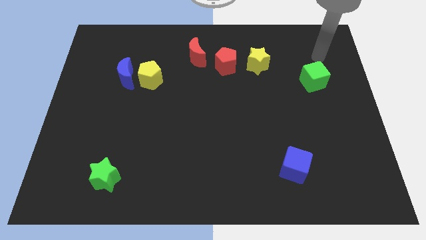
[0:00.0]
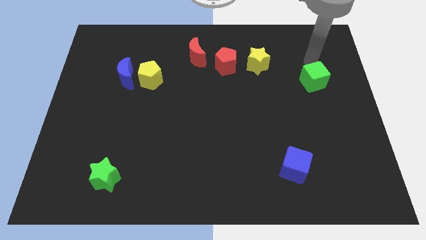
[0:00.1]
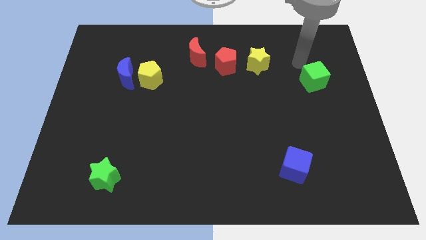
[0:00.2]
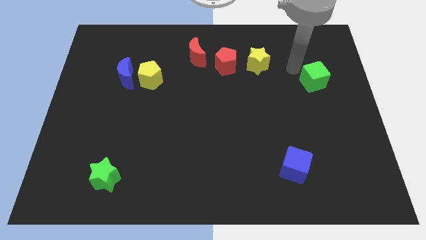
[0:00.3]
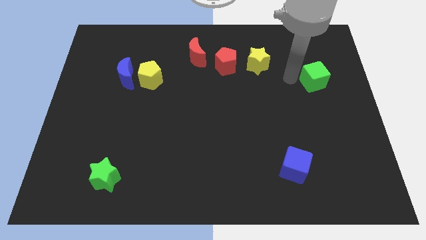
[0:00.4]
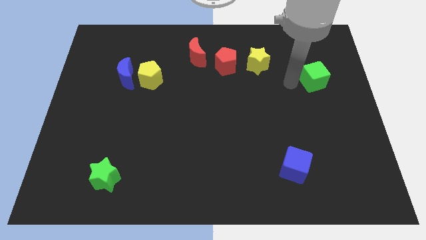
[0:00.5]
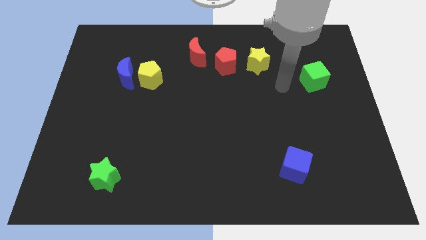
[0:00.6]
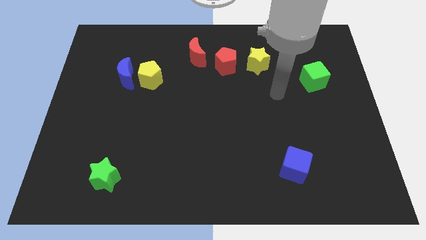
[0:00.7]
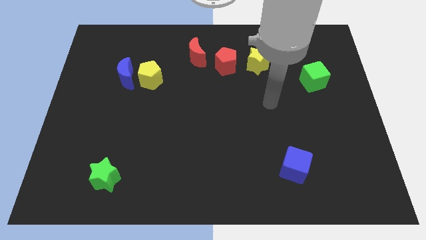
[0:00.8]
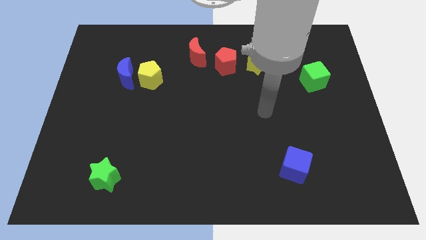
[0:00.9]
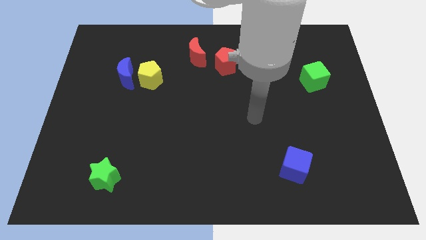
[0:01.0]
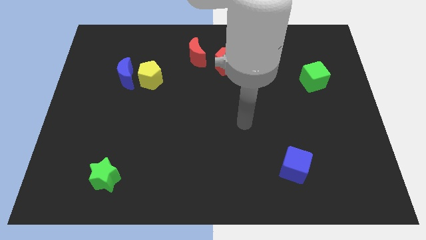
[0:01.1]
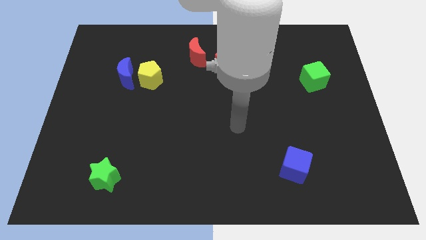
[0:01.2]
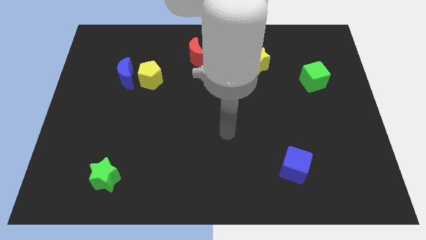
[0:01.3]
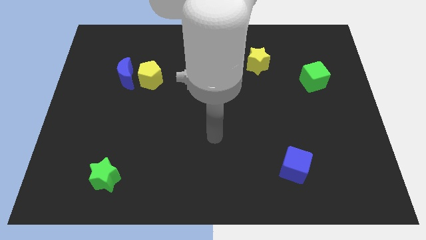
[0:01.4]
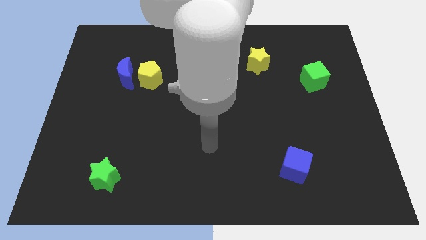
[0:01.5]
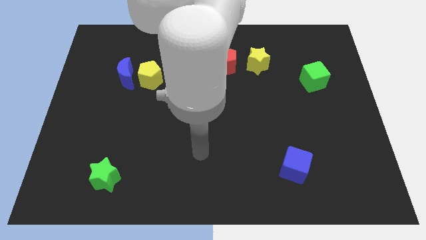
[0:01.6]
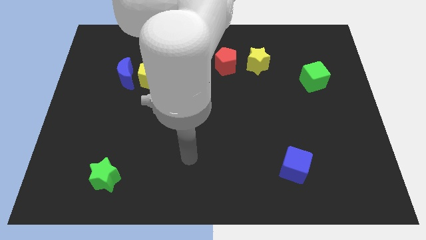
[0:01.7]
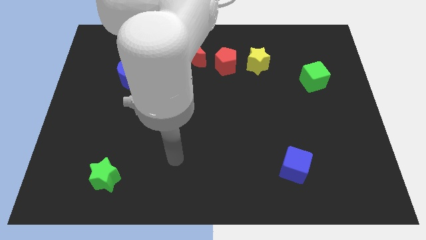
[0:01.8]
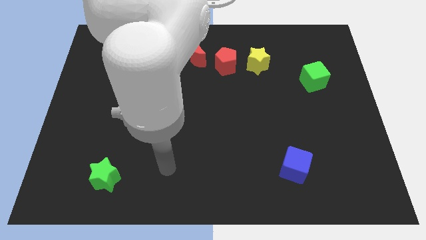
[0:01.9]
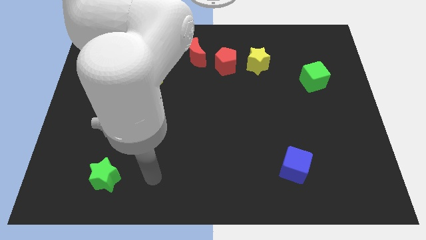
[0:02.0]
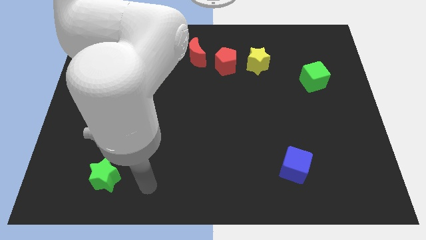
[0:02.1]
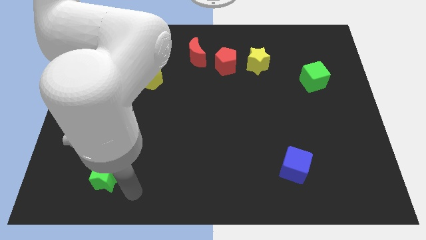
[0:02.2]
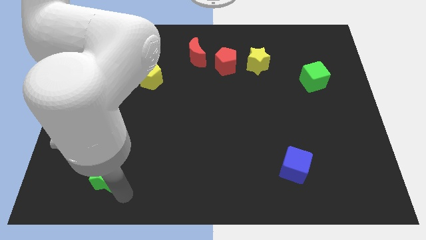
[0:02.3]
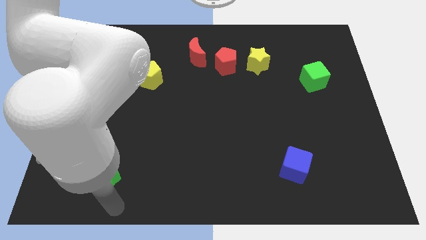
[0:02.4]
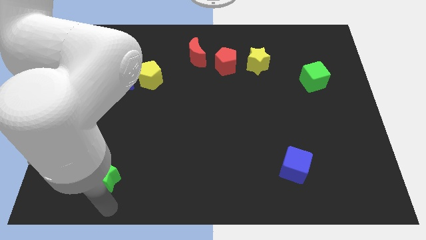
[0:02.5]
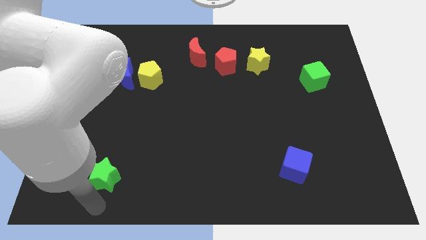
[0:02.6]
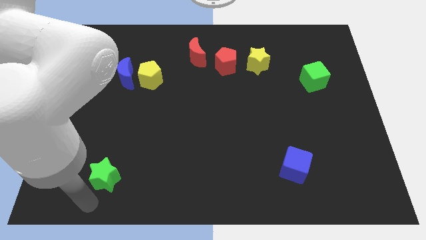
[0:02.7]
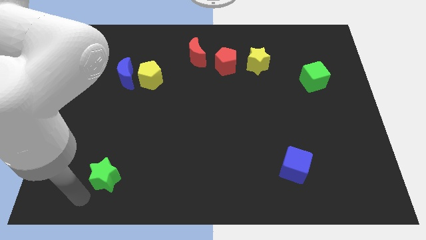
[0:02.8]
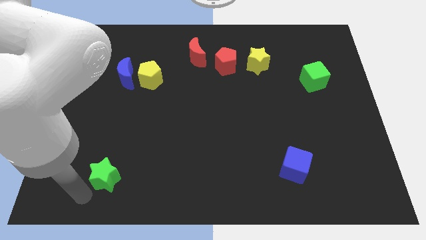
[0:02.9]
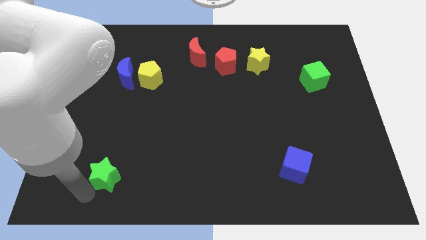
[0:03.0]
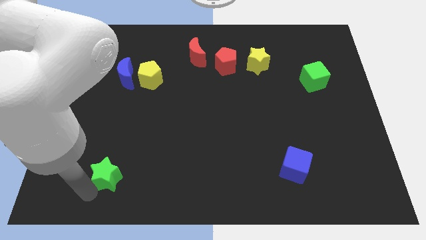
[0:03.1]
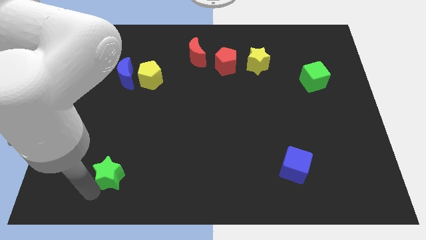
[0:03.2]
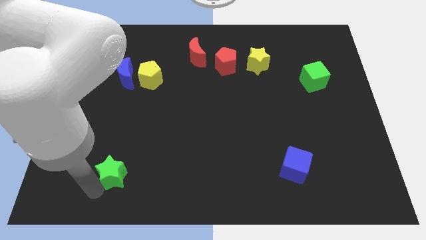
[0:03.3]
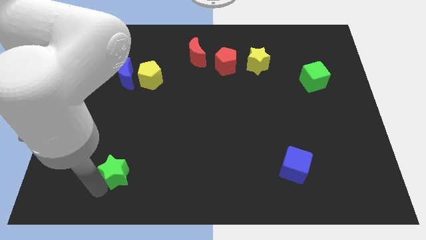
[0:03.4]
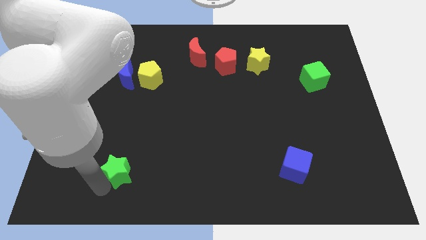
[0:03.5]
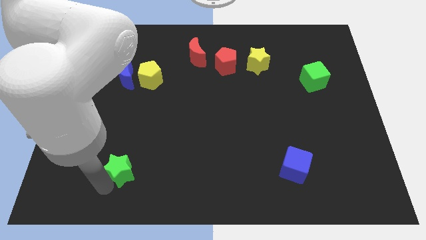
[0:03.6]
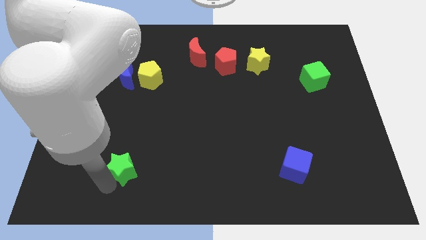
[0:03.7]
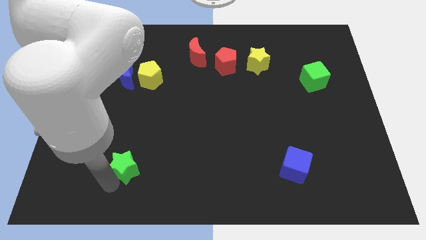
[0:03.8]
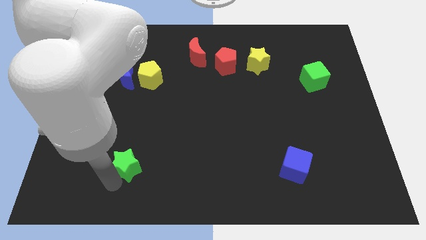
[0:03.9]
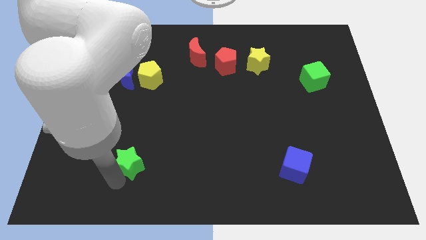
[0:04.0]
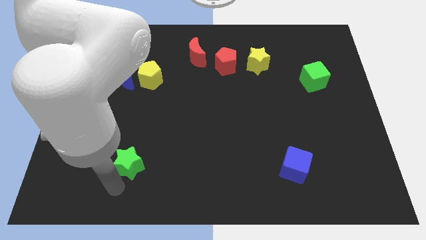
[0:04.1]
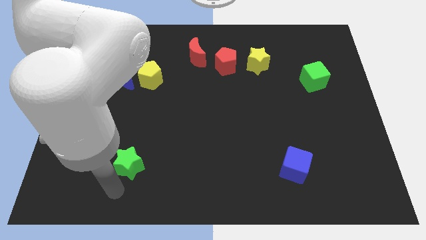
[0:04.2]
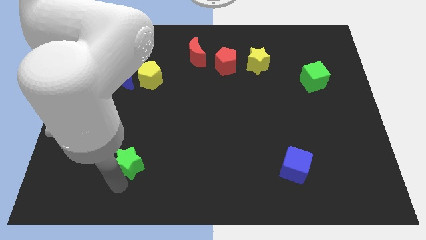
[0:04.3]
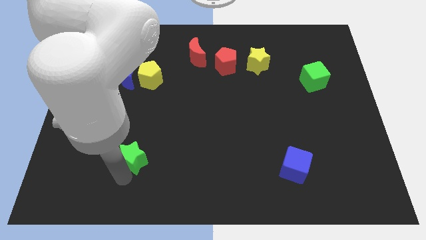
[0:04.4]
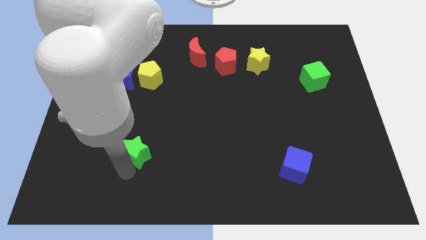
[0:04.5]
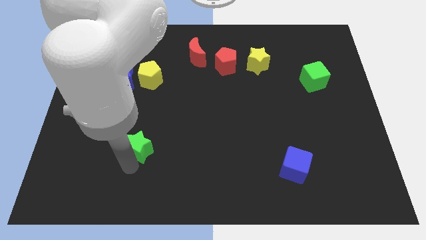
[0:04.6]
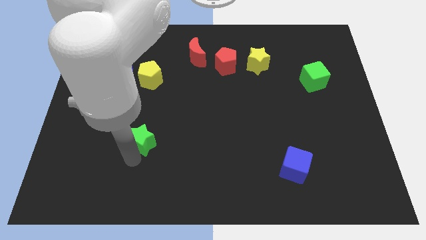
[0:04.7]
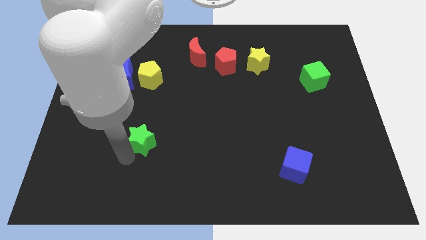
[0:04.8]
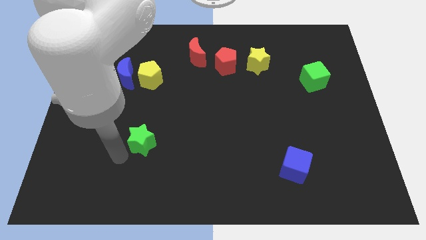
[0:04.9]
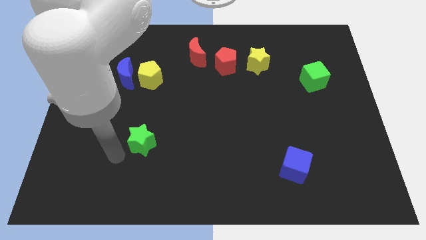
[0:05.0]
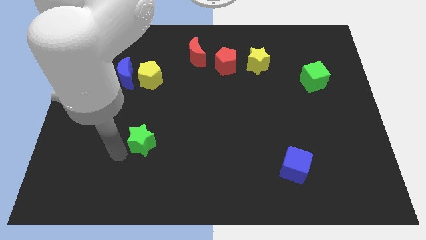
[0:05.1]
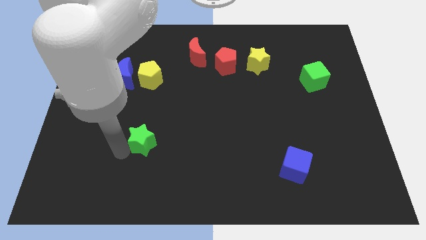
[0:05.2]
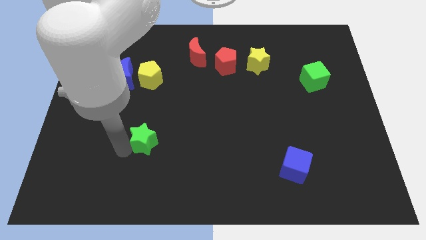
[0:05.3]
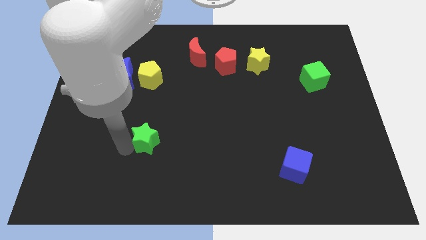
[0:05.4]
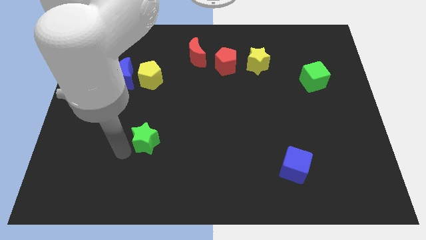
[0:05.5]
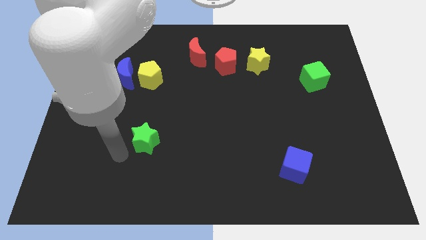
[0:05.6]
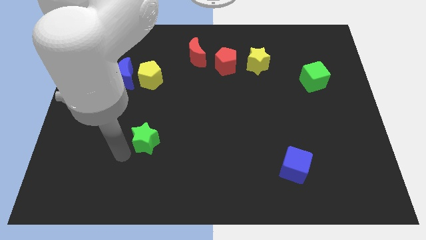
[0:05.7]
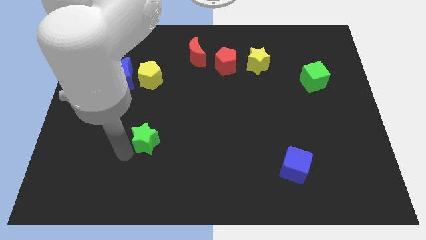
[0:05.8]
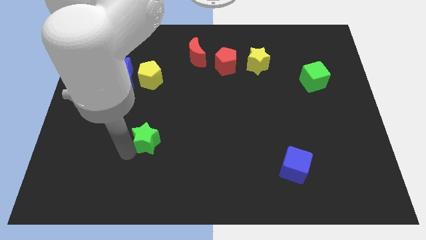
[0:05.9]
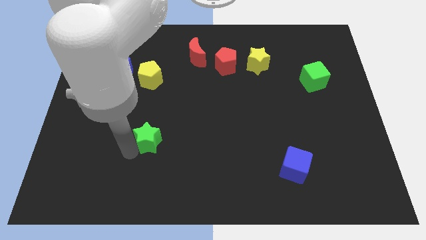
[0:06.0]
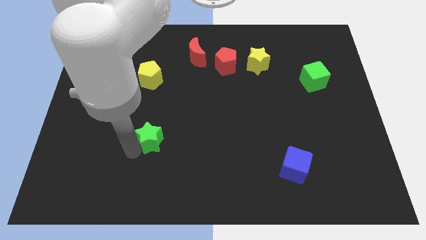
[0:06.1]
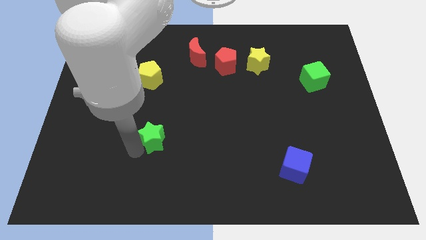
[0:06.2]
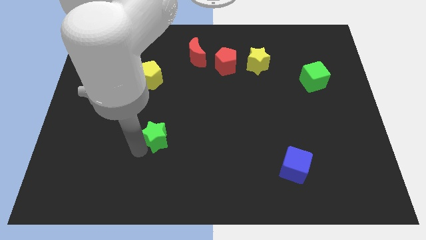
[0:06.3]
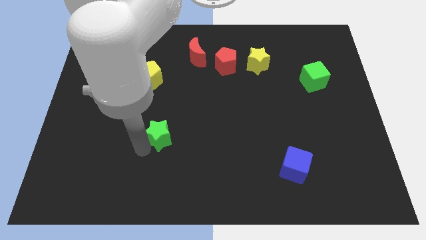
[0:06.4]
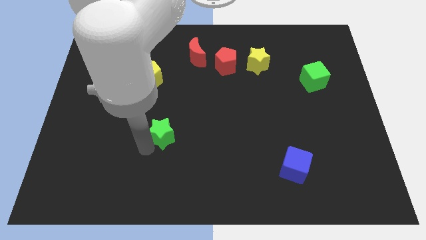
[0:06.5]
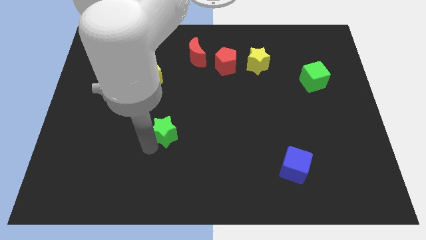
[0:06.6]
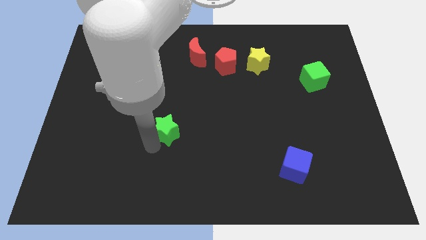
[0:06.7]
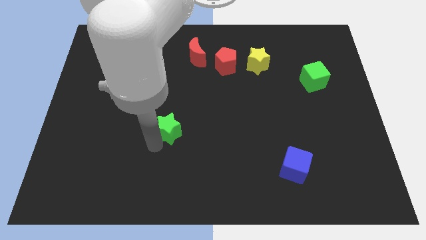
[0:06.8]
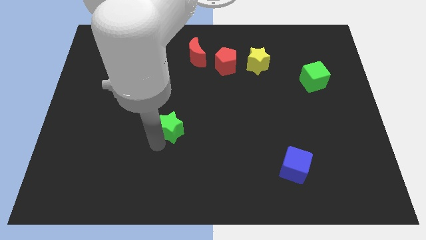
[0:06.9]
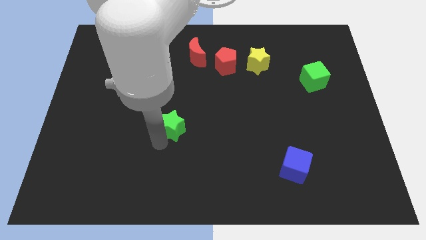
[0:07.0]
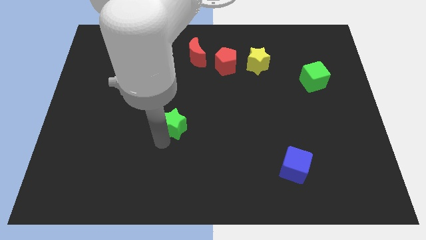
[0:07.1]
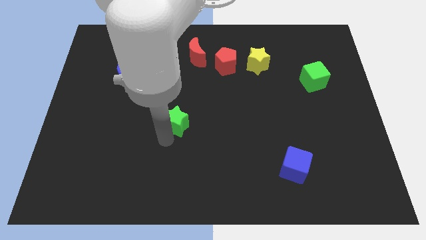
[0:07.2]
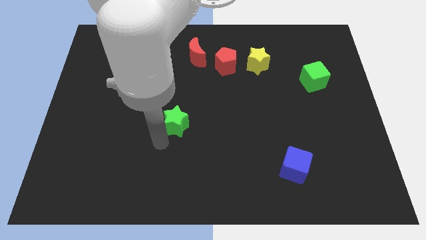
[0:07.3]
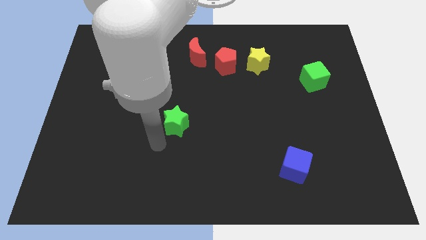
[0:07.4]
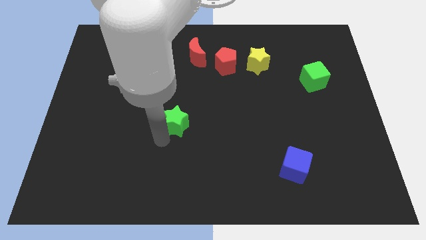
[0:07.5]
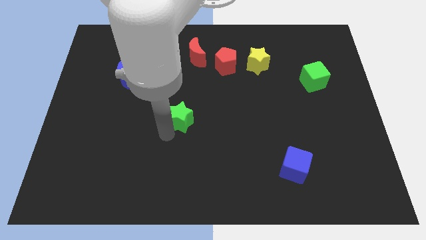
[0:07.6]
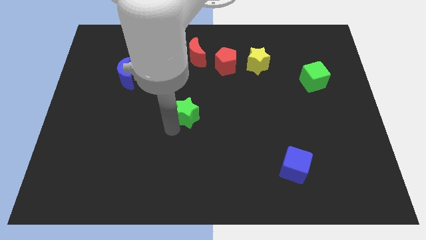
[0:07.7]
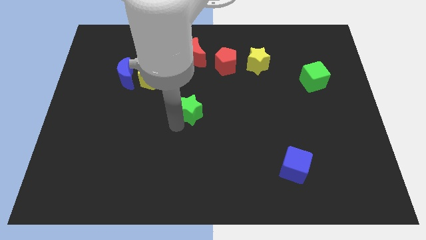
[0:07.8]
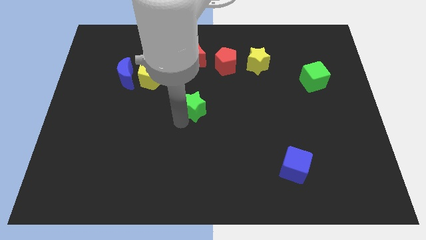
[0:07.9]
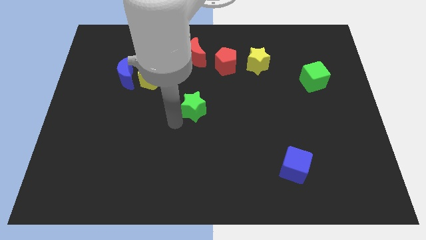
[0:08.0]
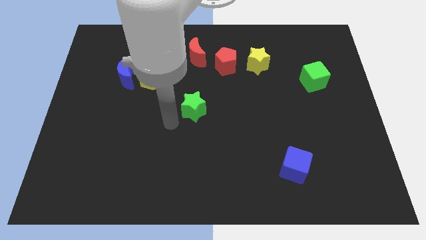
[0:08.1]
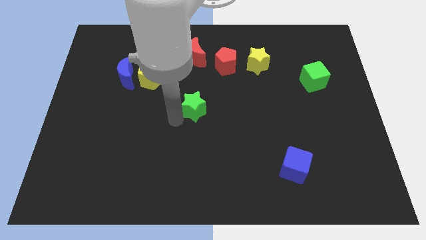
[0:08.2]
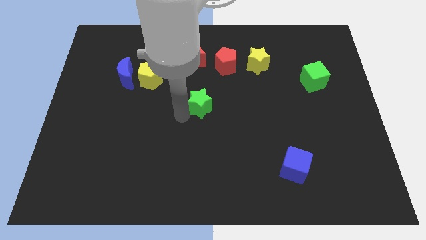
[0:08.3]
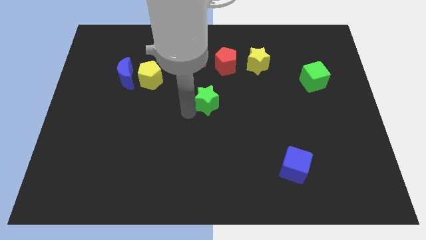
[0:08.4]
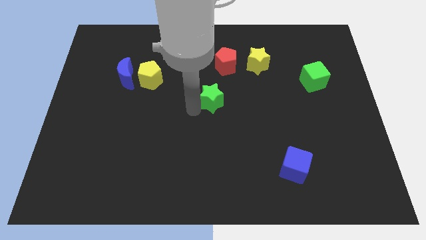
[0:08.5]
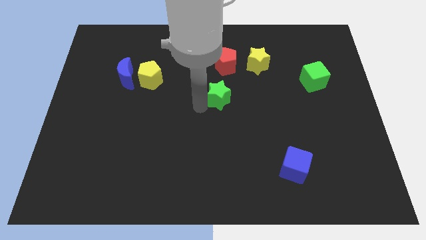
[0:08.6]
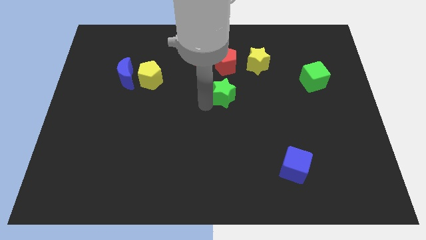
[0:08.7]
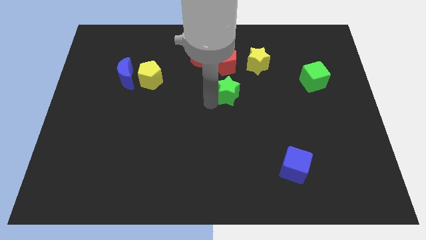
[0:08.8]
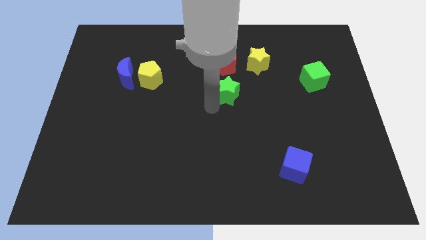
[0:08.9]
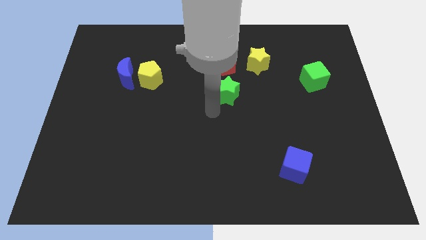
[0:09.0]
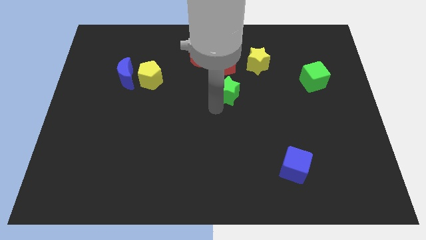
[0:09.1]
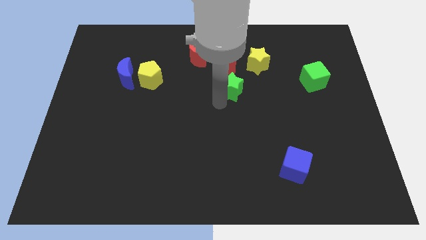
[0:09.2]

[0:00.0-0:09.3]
slide the green star diagonally down and to the left of the yellow star
